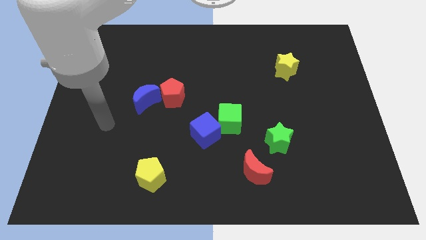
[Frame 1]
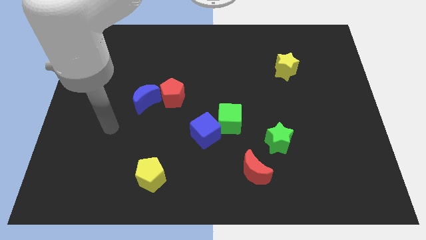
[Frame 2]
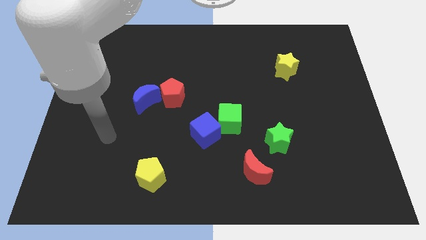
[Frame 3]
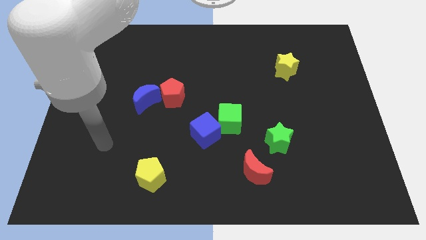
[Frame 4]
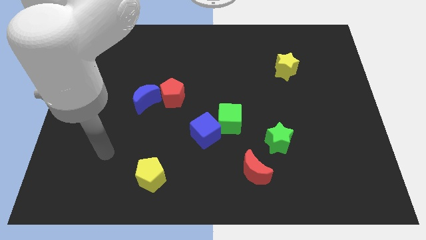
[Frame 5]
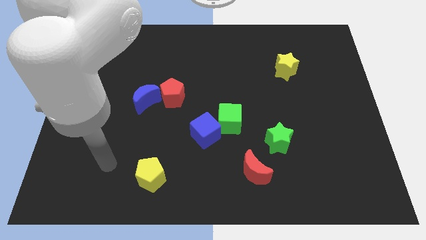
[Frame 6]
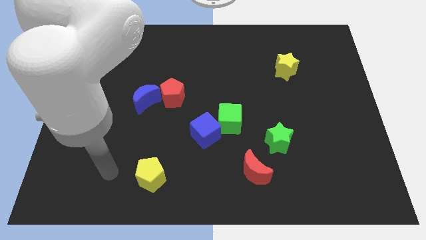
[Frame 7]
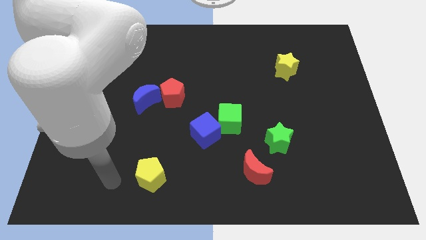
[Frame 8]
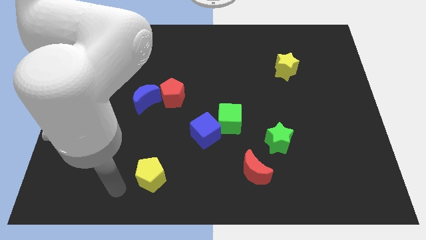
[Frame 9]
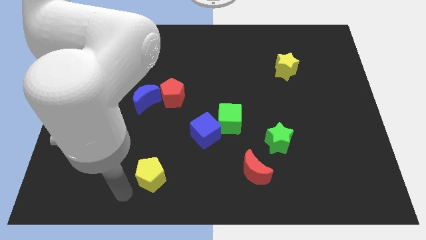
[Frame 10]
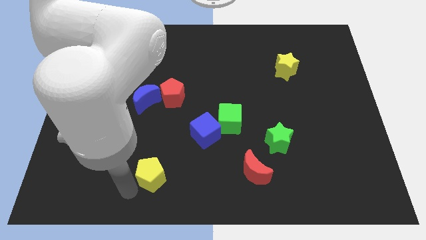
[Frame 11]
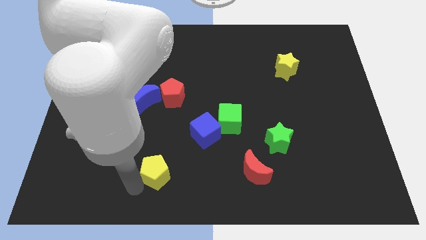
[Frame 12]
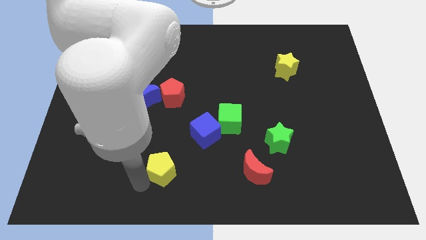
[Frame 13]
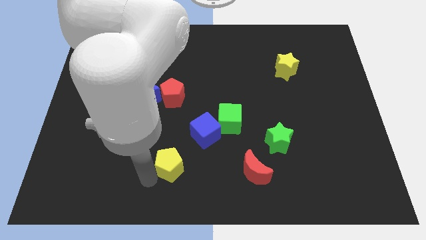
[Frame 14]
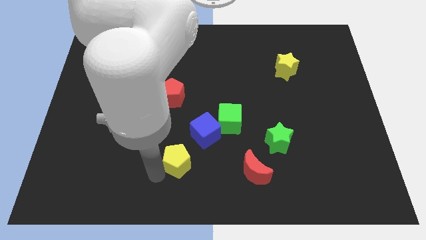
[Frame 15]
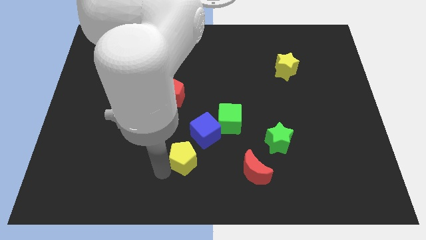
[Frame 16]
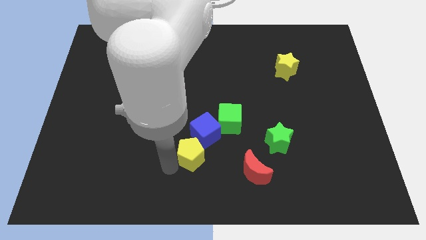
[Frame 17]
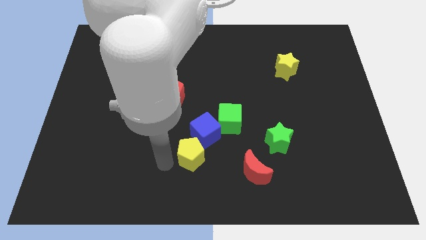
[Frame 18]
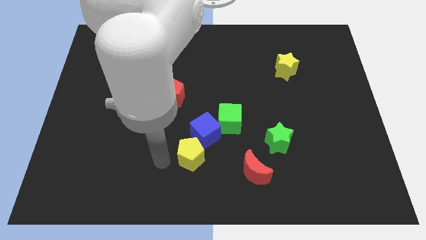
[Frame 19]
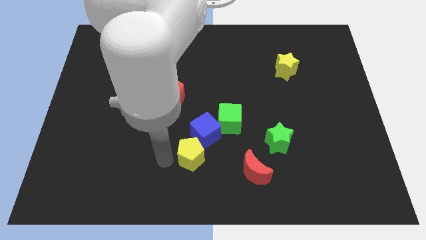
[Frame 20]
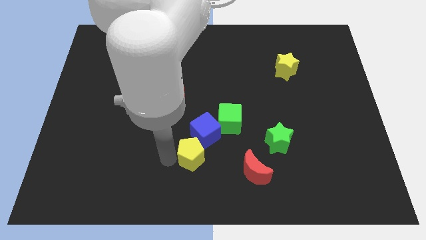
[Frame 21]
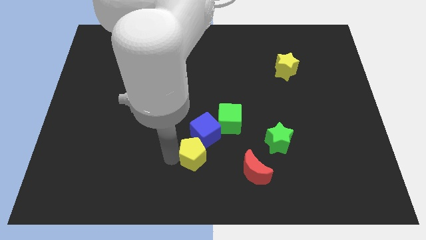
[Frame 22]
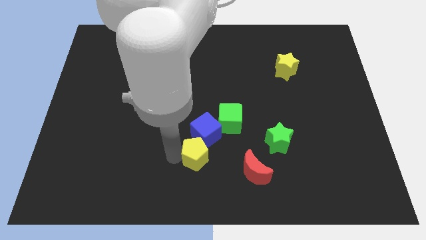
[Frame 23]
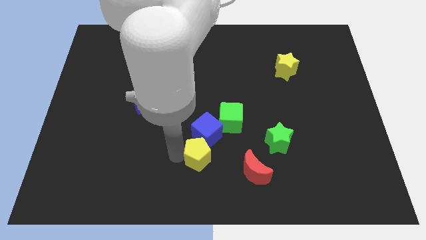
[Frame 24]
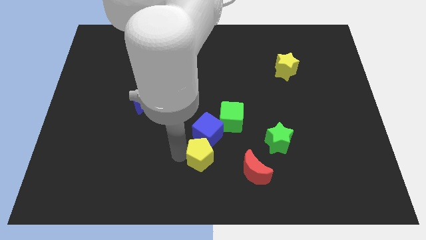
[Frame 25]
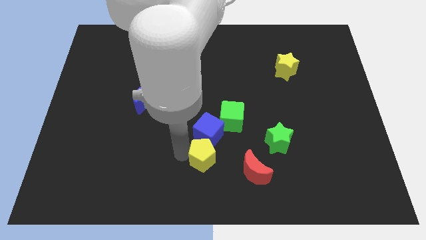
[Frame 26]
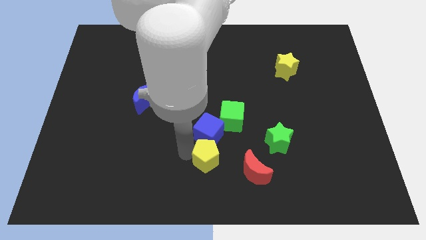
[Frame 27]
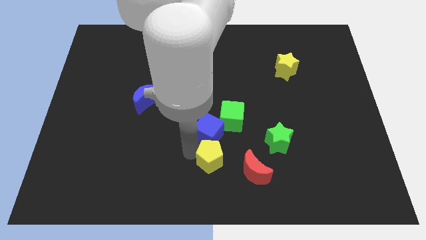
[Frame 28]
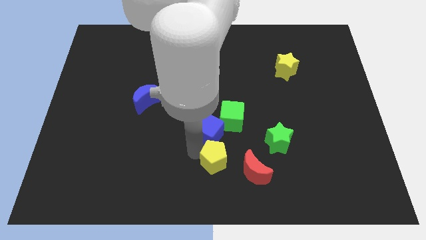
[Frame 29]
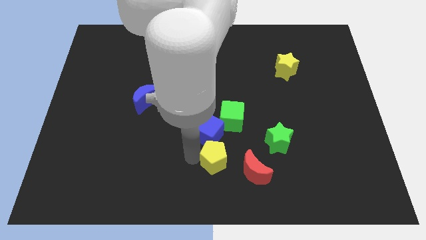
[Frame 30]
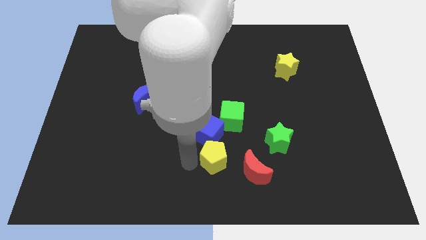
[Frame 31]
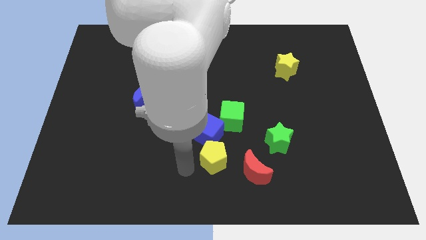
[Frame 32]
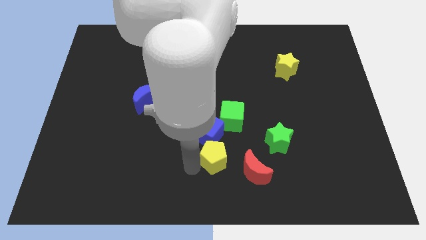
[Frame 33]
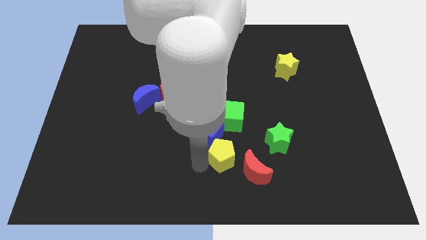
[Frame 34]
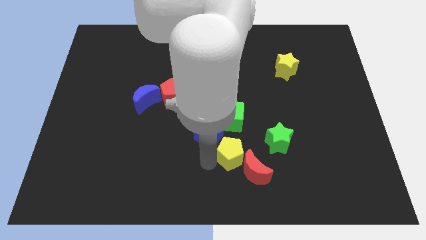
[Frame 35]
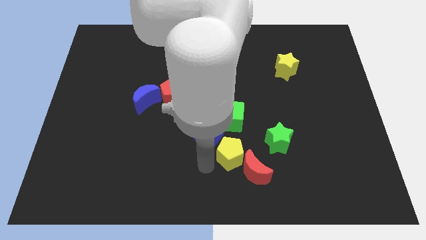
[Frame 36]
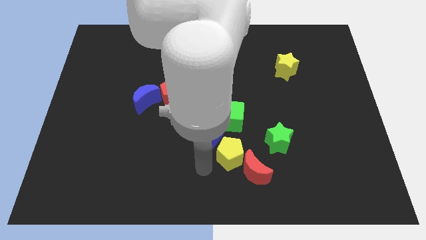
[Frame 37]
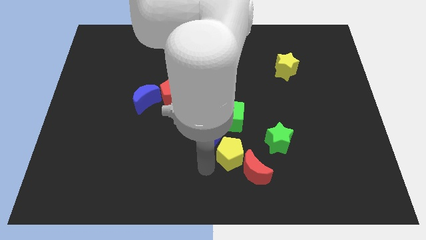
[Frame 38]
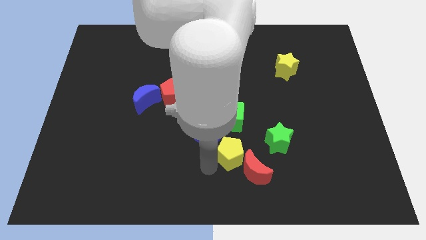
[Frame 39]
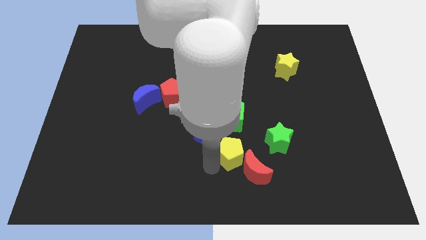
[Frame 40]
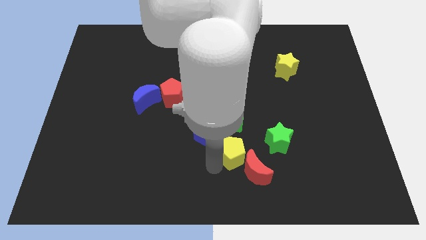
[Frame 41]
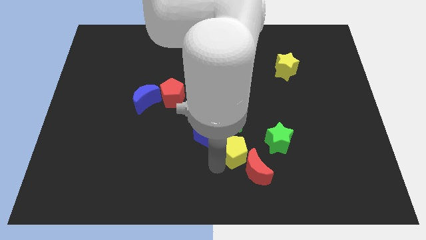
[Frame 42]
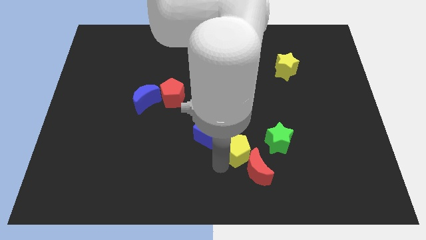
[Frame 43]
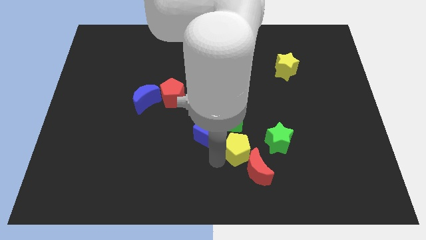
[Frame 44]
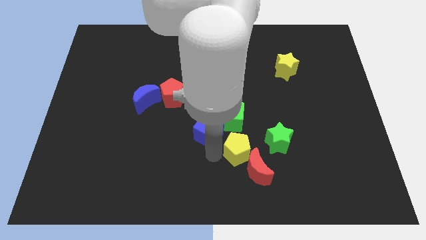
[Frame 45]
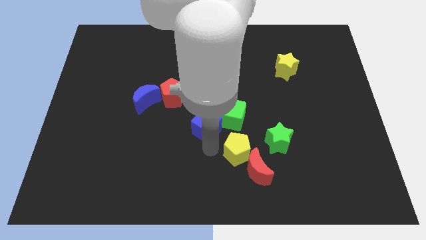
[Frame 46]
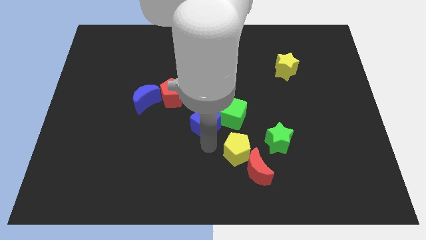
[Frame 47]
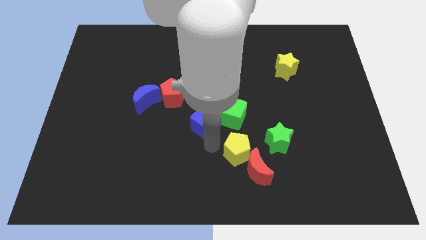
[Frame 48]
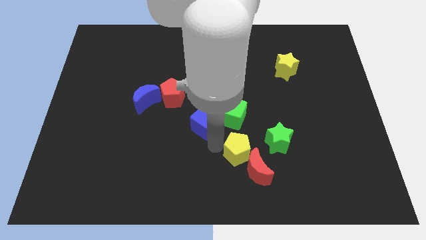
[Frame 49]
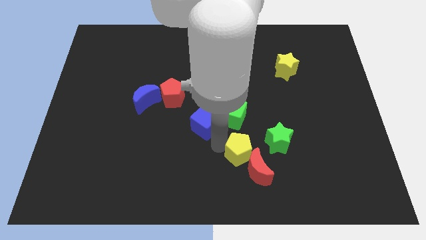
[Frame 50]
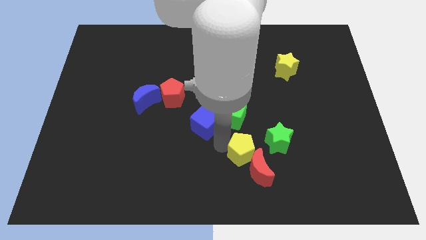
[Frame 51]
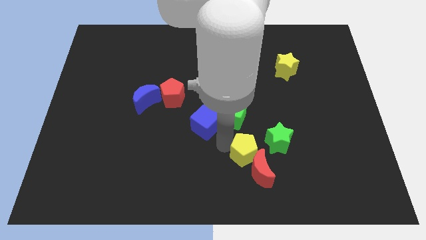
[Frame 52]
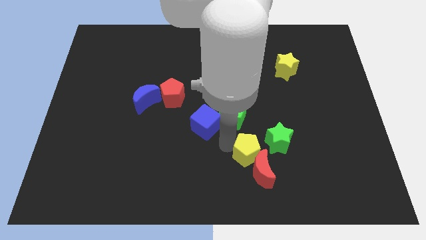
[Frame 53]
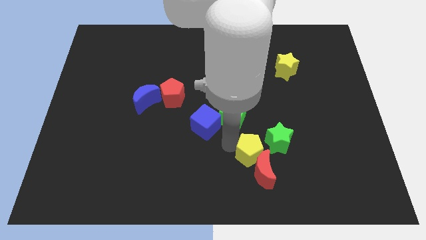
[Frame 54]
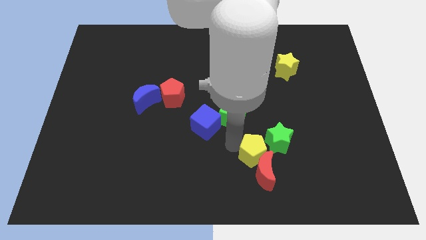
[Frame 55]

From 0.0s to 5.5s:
move the yellow pentagon to the right

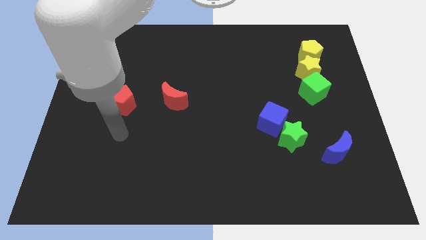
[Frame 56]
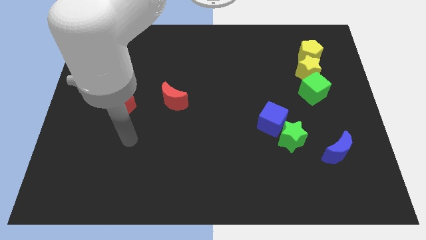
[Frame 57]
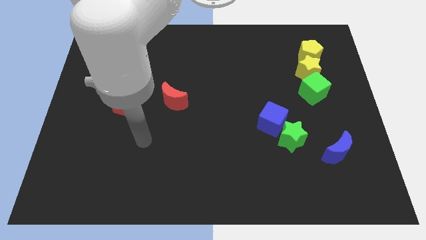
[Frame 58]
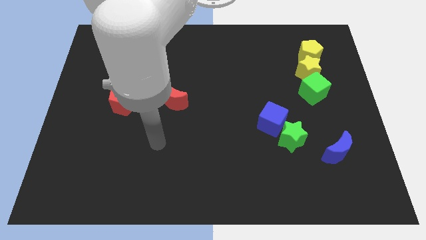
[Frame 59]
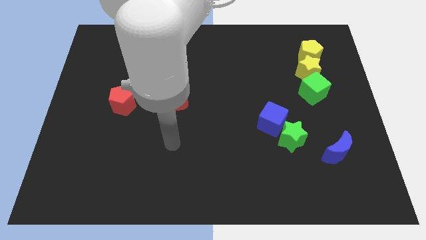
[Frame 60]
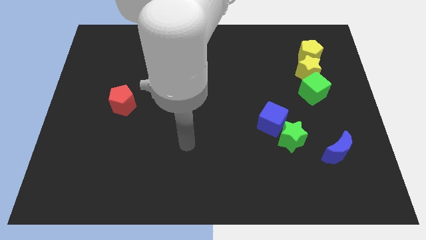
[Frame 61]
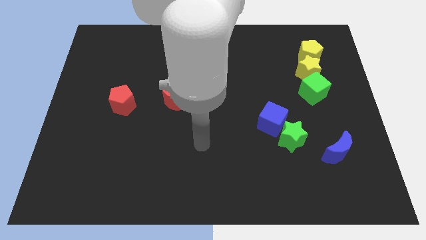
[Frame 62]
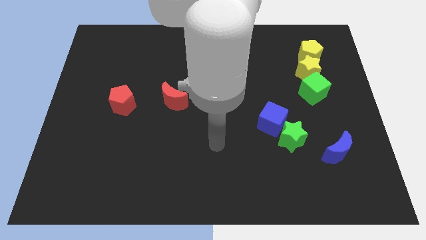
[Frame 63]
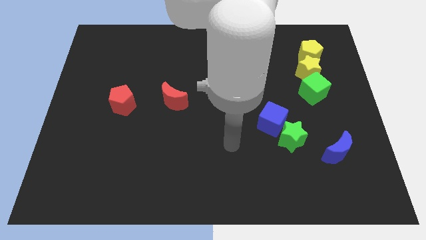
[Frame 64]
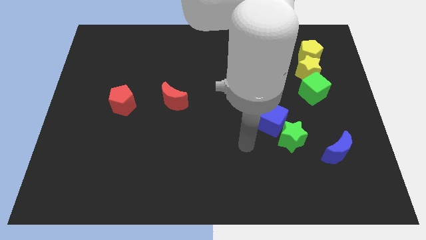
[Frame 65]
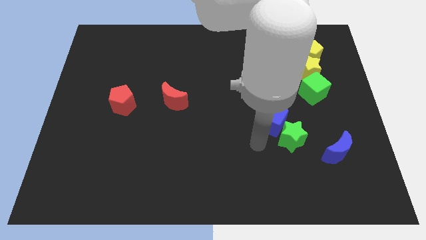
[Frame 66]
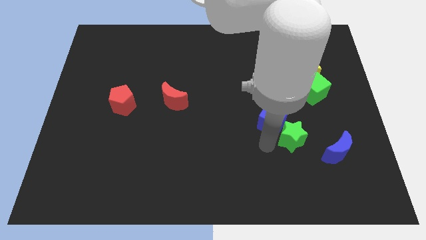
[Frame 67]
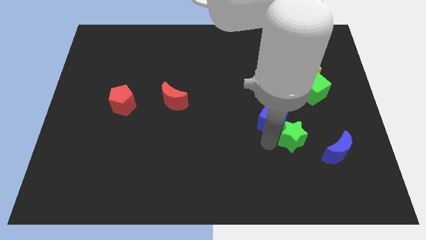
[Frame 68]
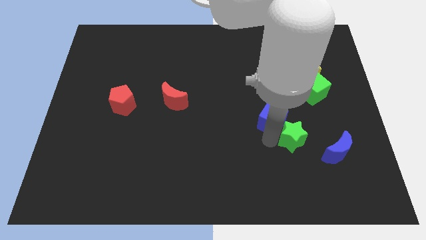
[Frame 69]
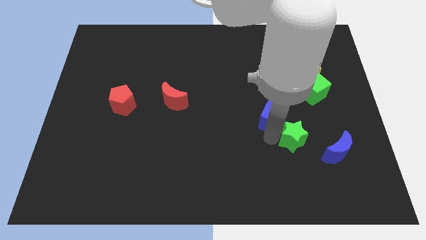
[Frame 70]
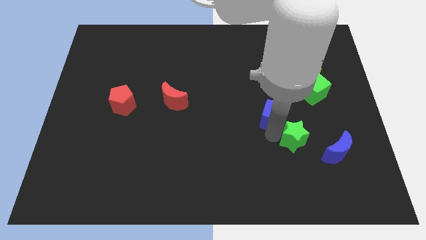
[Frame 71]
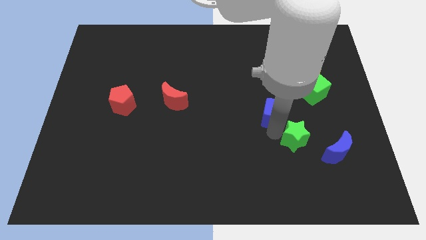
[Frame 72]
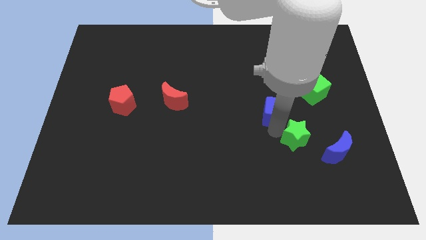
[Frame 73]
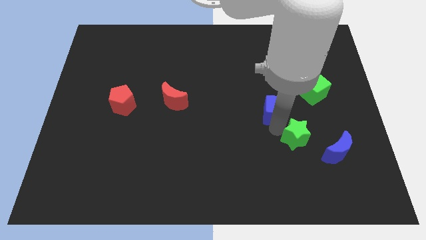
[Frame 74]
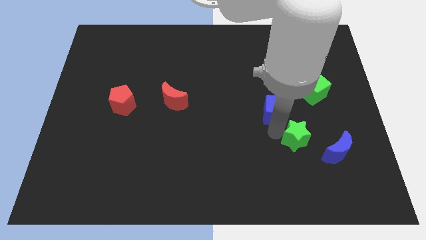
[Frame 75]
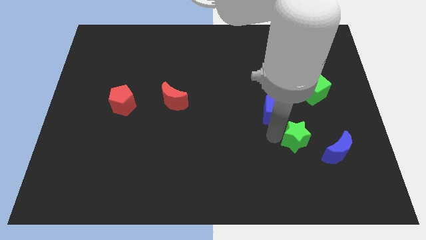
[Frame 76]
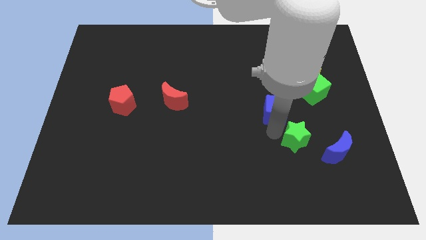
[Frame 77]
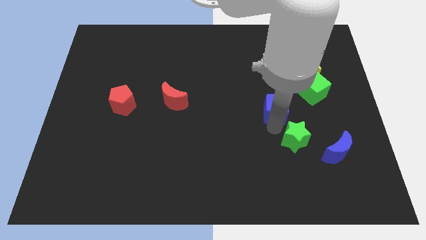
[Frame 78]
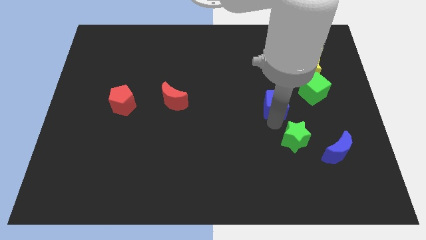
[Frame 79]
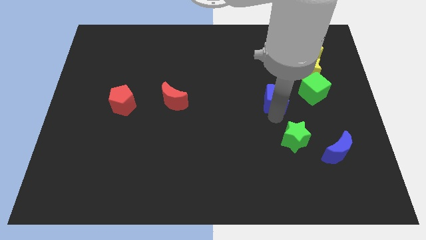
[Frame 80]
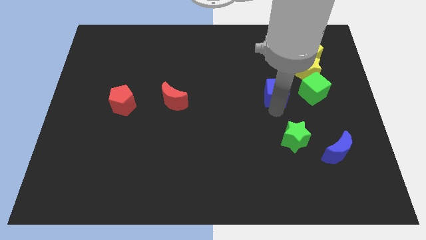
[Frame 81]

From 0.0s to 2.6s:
slightly slide the blue cube up
